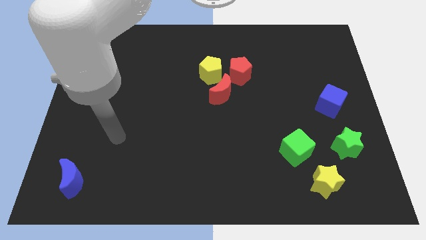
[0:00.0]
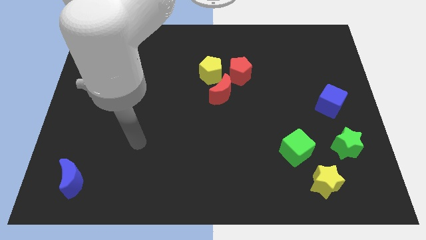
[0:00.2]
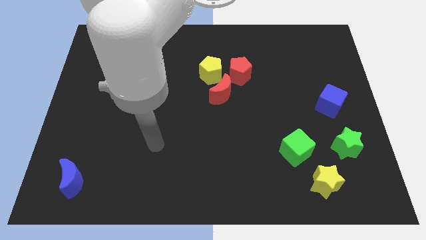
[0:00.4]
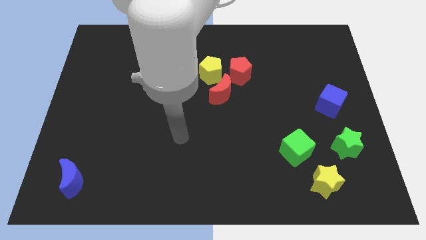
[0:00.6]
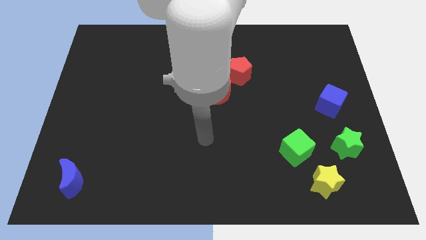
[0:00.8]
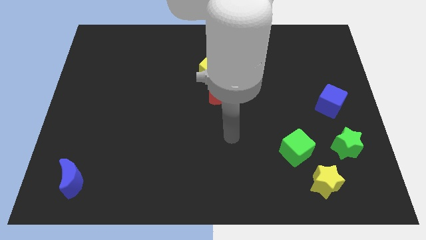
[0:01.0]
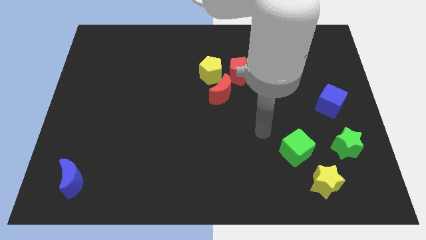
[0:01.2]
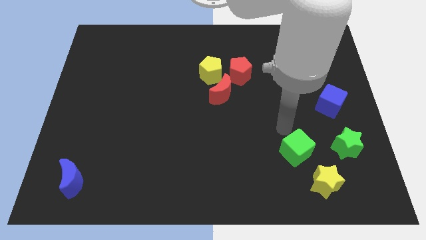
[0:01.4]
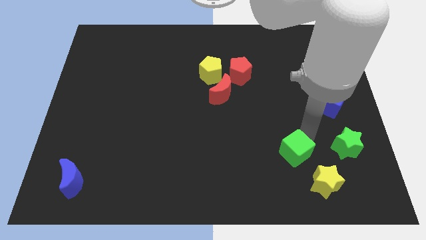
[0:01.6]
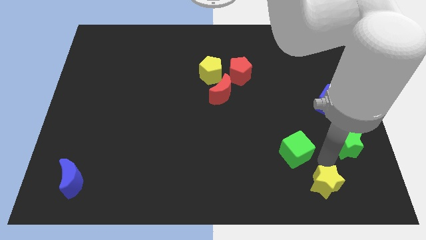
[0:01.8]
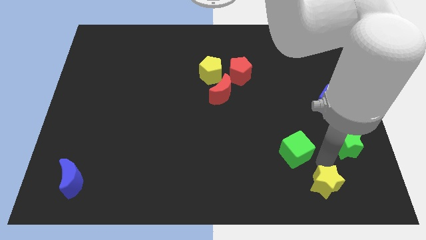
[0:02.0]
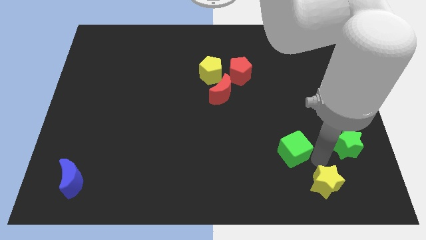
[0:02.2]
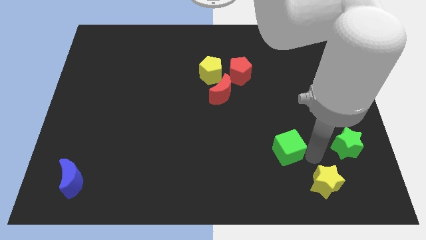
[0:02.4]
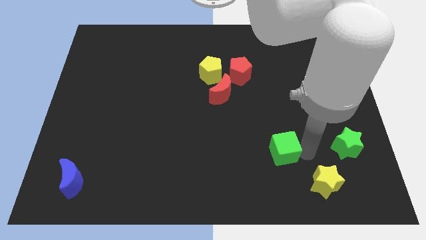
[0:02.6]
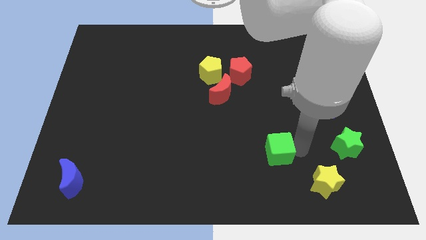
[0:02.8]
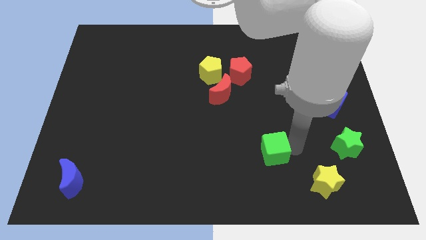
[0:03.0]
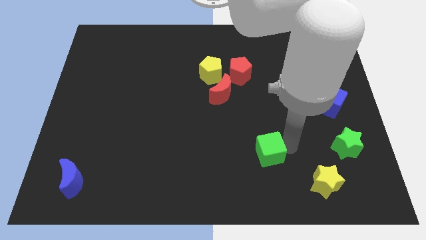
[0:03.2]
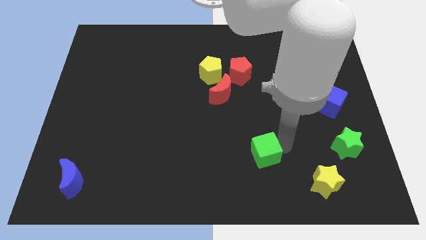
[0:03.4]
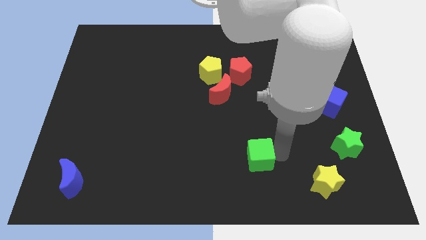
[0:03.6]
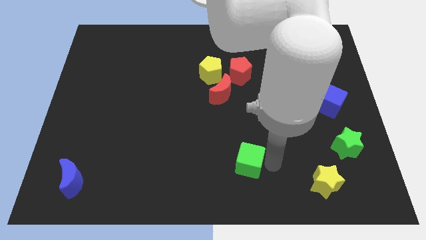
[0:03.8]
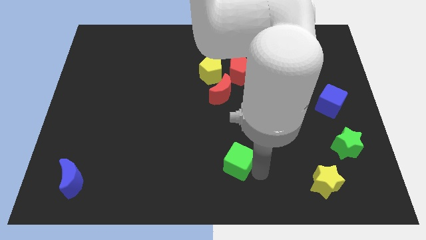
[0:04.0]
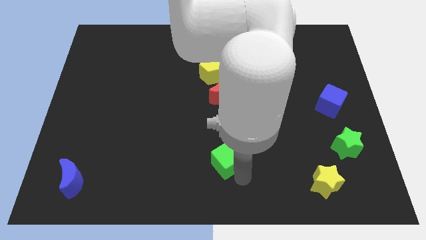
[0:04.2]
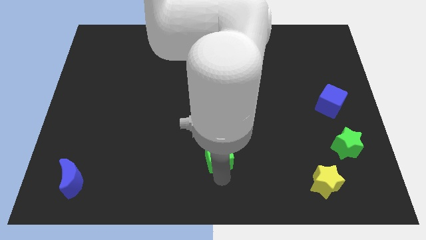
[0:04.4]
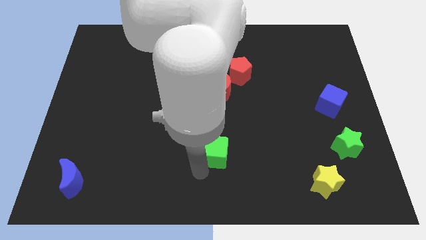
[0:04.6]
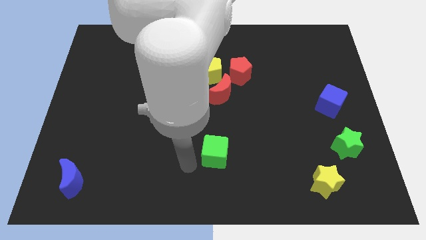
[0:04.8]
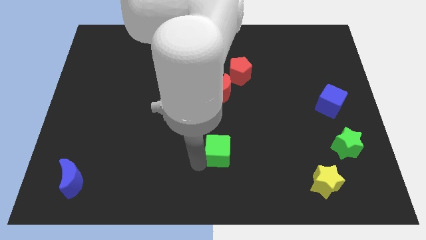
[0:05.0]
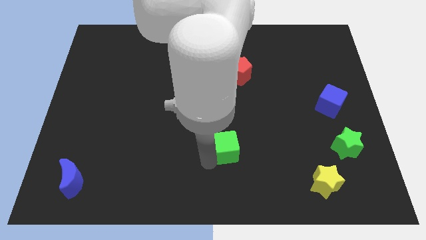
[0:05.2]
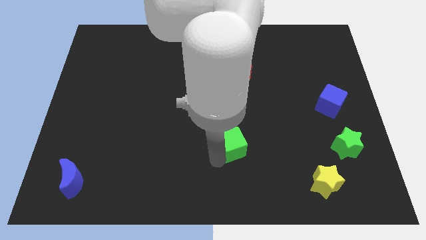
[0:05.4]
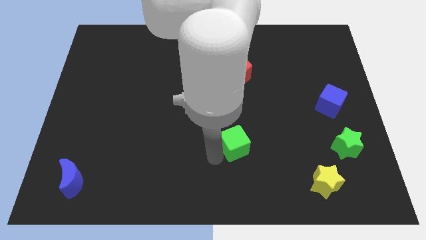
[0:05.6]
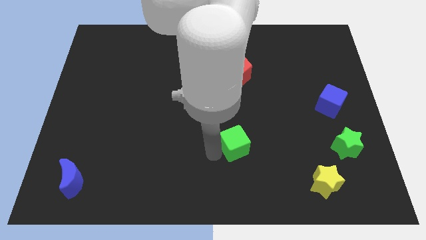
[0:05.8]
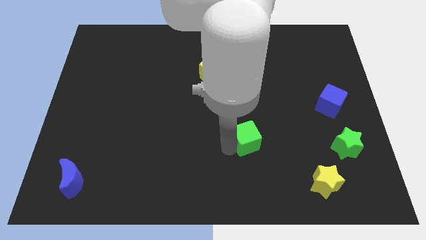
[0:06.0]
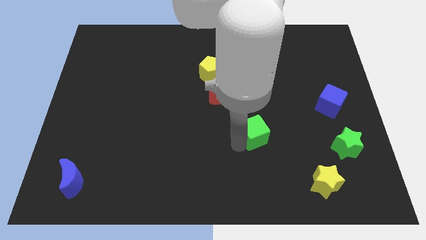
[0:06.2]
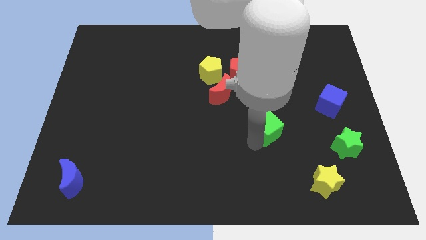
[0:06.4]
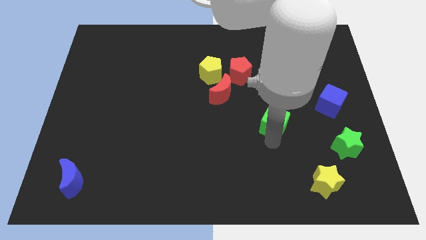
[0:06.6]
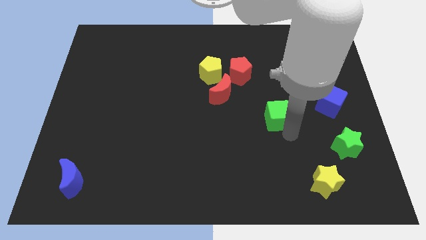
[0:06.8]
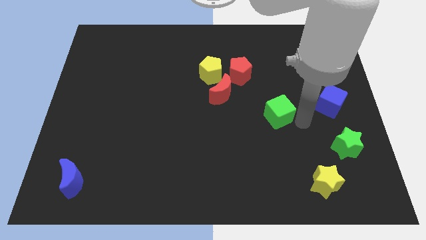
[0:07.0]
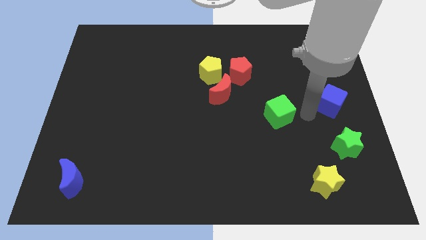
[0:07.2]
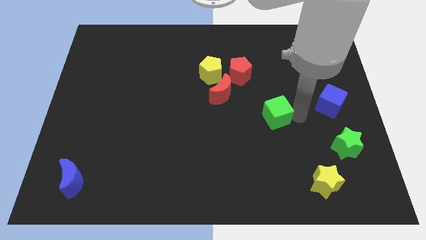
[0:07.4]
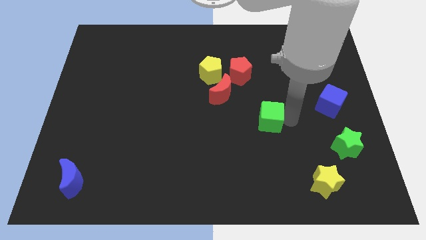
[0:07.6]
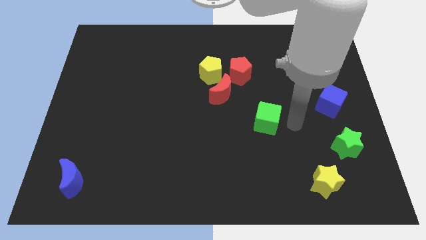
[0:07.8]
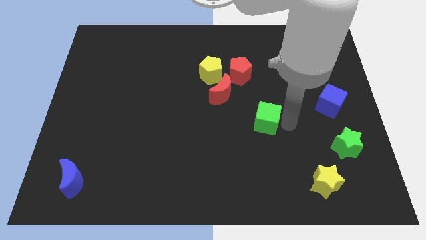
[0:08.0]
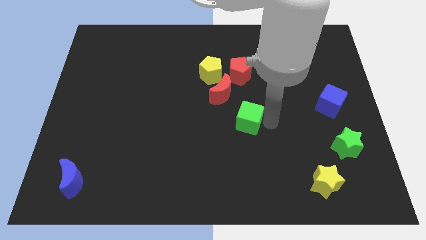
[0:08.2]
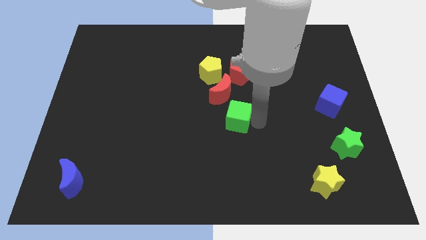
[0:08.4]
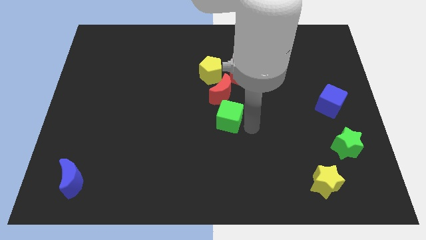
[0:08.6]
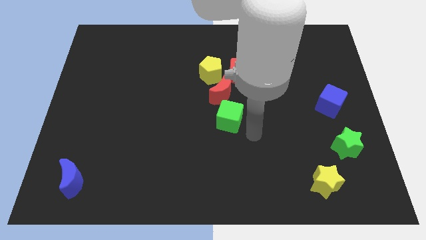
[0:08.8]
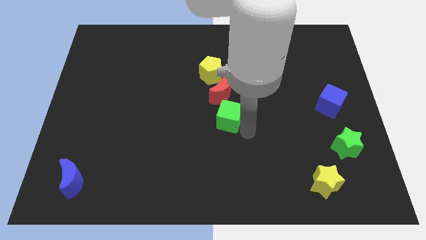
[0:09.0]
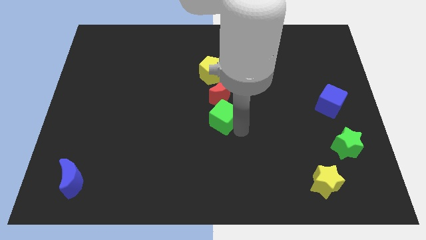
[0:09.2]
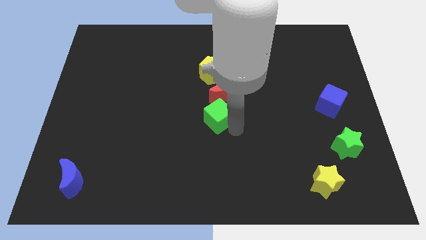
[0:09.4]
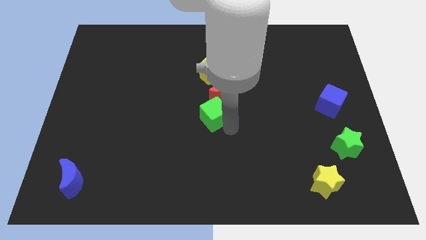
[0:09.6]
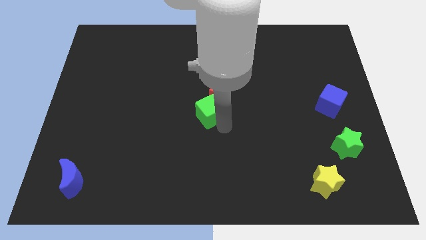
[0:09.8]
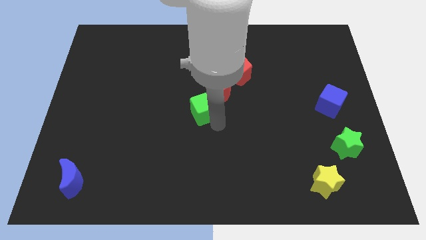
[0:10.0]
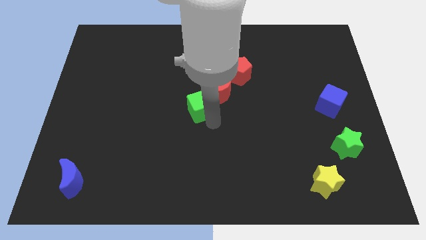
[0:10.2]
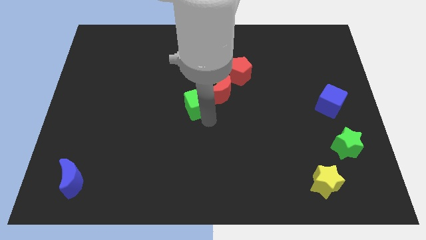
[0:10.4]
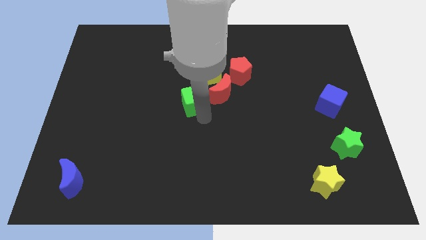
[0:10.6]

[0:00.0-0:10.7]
put the green cube to the bottom left side of the yellow pentagon

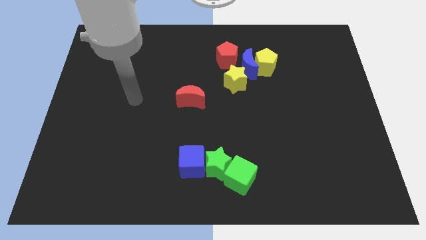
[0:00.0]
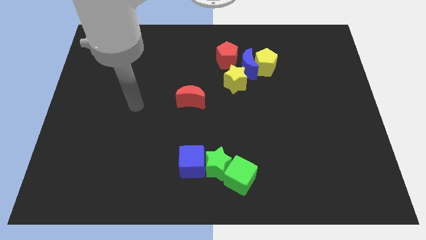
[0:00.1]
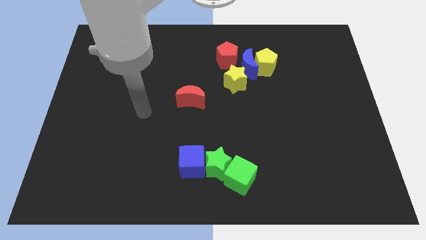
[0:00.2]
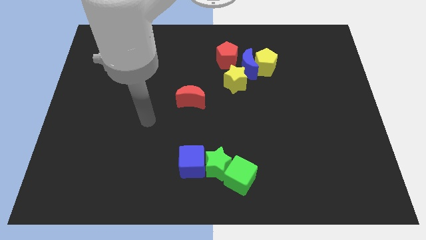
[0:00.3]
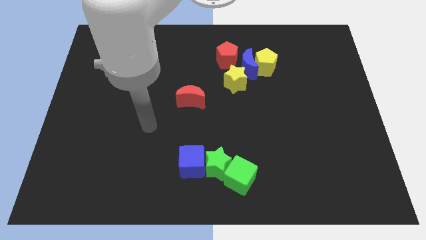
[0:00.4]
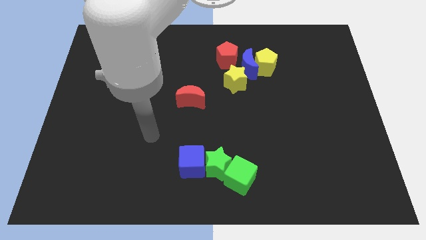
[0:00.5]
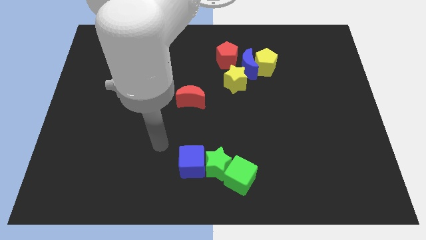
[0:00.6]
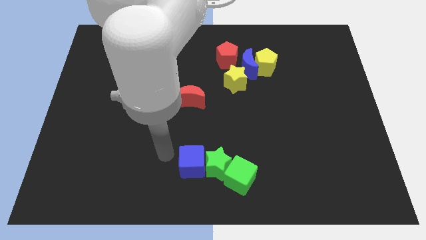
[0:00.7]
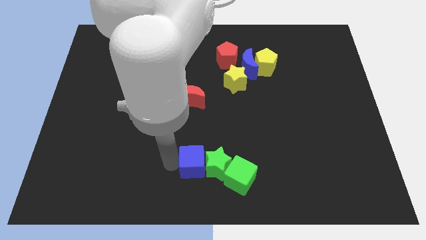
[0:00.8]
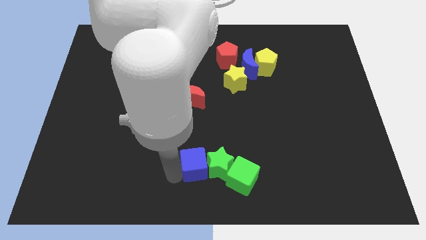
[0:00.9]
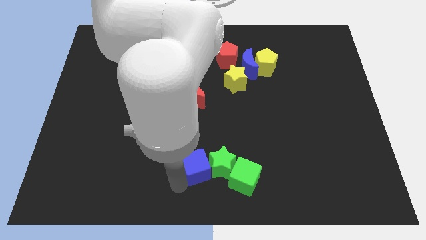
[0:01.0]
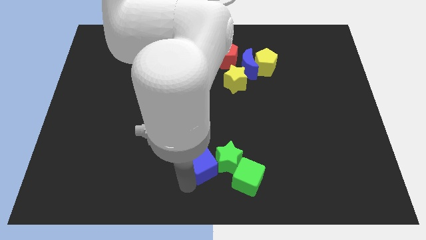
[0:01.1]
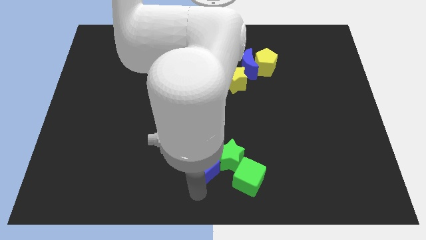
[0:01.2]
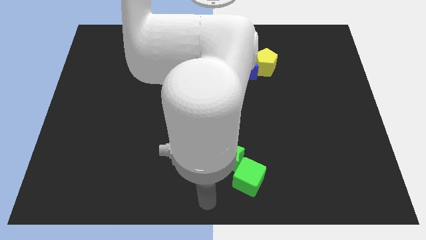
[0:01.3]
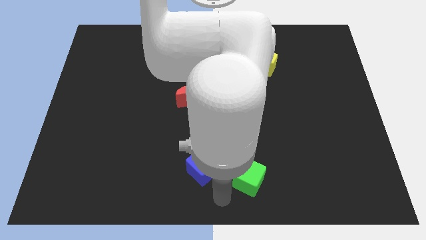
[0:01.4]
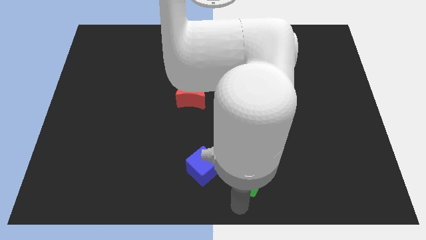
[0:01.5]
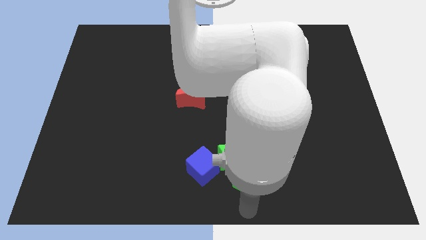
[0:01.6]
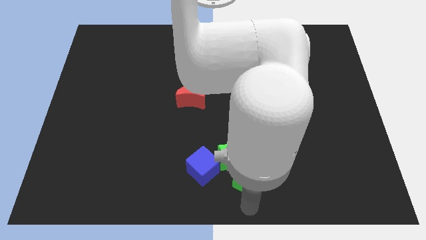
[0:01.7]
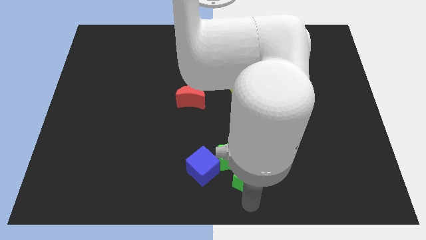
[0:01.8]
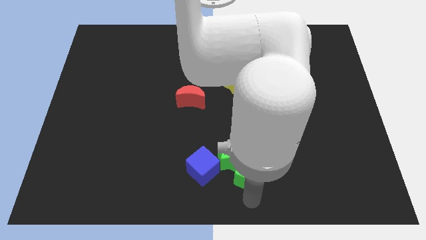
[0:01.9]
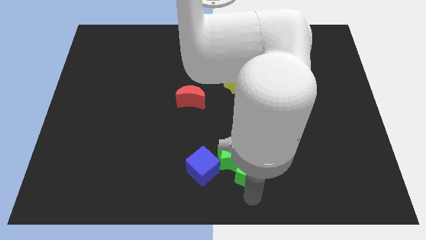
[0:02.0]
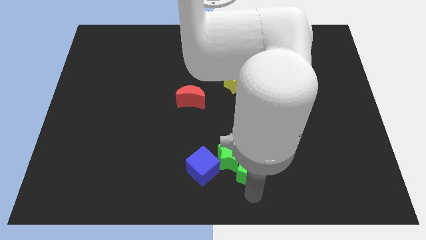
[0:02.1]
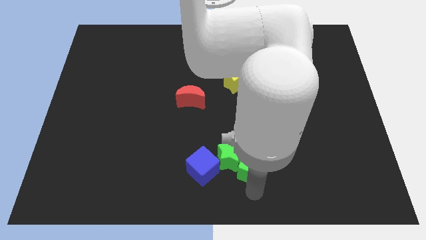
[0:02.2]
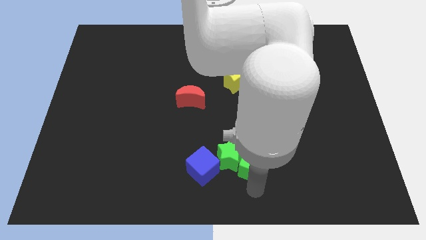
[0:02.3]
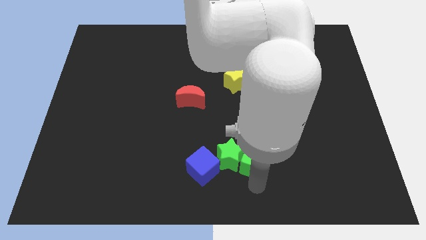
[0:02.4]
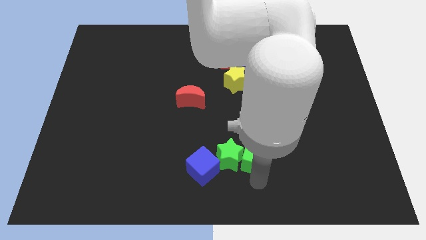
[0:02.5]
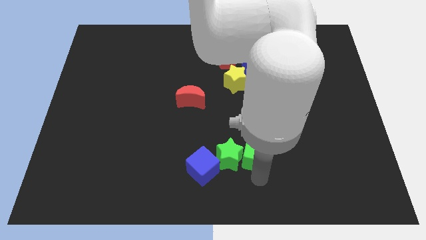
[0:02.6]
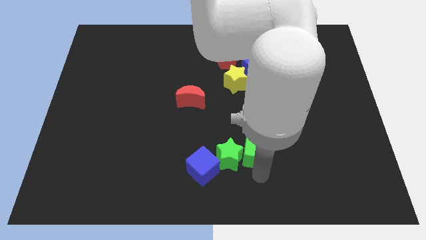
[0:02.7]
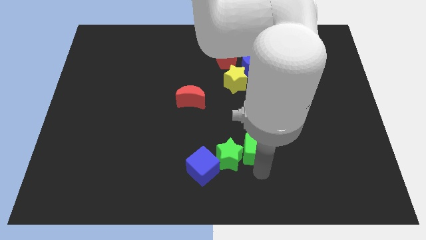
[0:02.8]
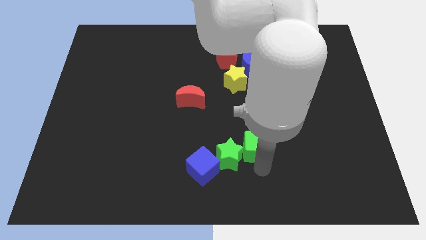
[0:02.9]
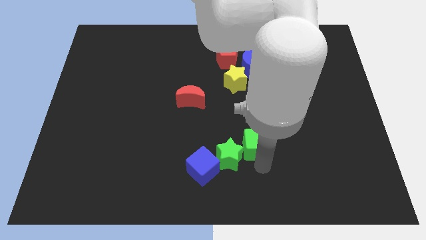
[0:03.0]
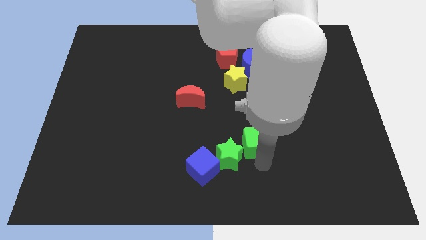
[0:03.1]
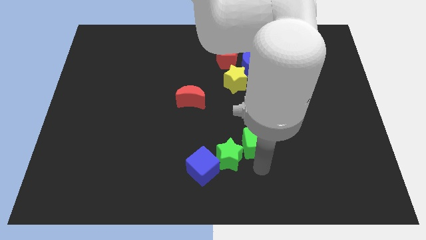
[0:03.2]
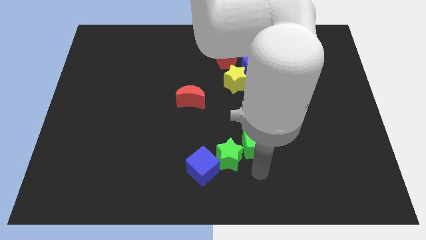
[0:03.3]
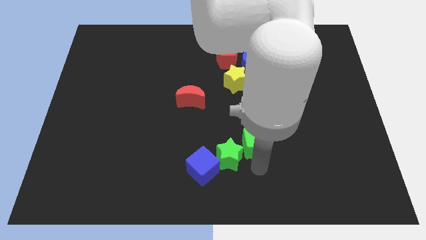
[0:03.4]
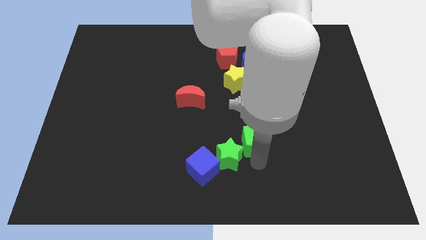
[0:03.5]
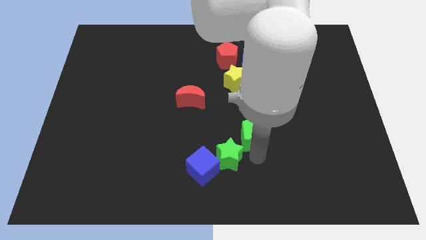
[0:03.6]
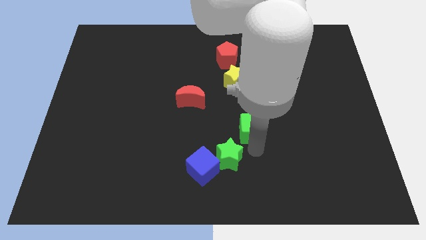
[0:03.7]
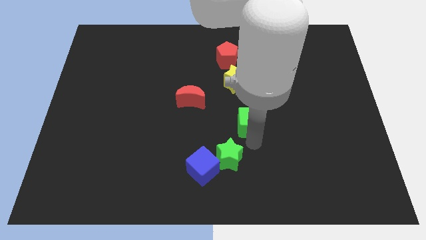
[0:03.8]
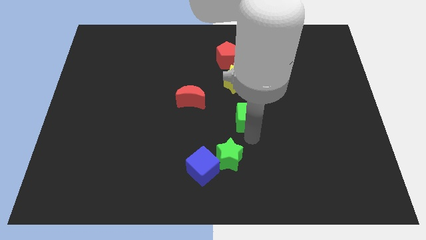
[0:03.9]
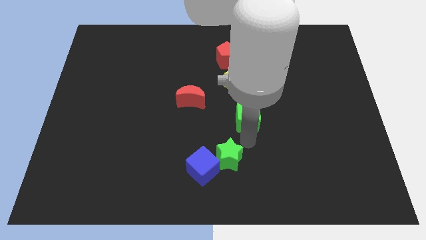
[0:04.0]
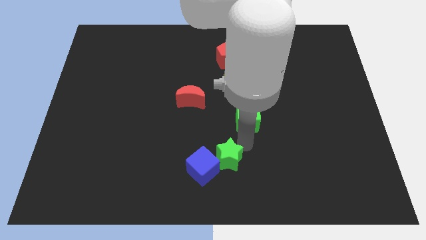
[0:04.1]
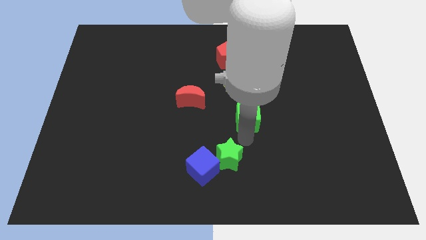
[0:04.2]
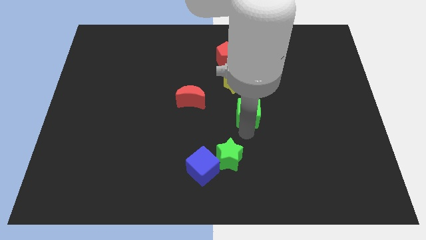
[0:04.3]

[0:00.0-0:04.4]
push the green cube below the blue moon
